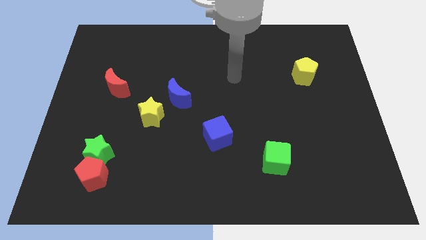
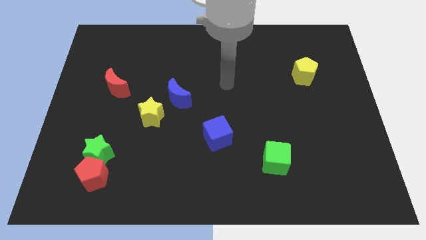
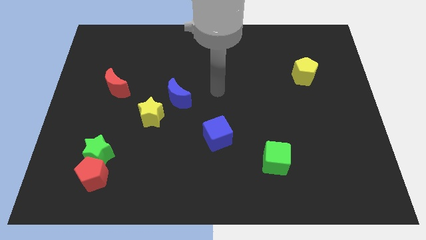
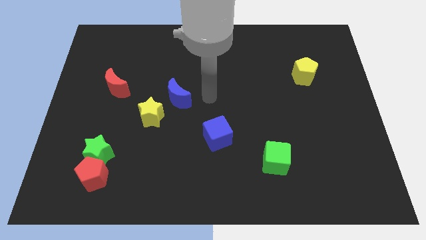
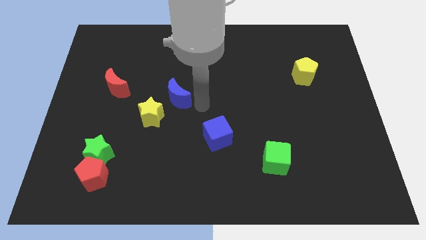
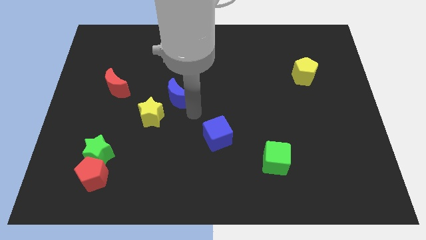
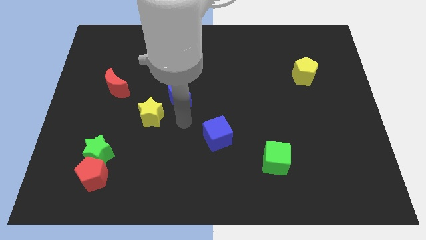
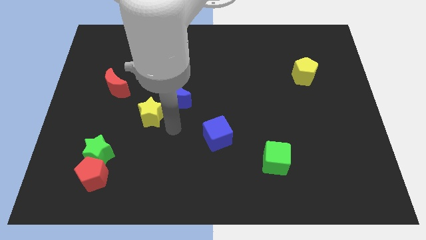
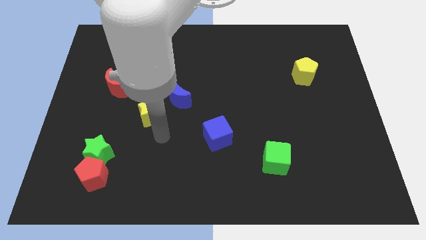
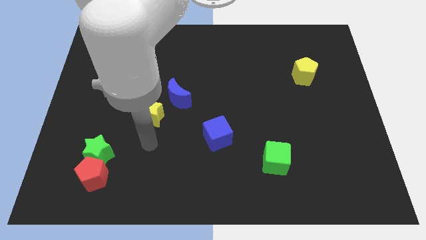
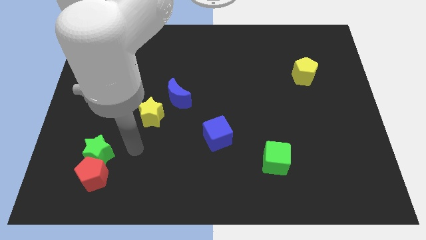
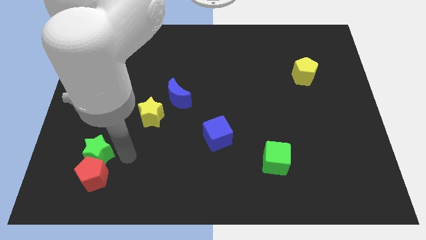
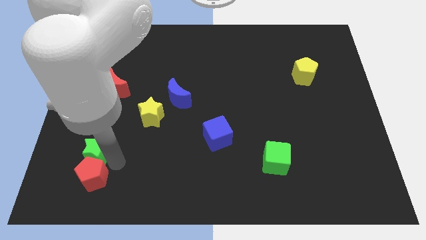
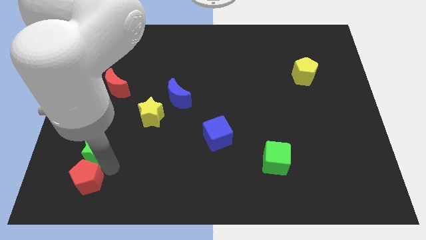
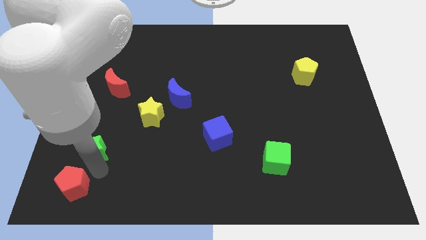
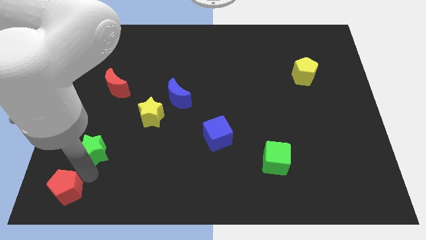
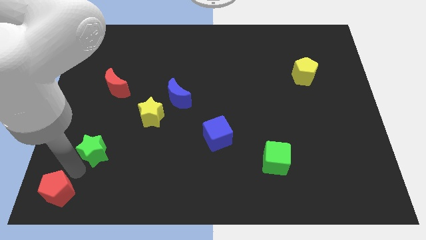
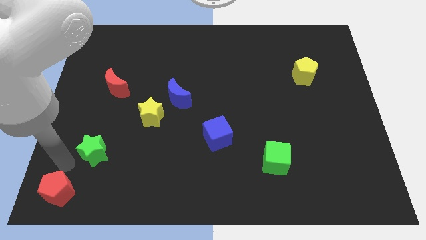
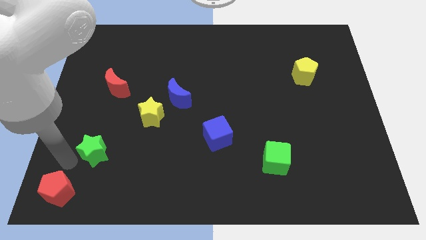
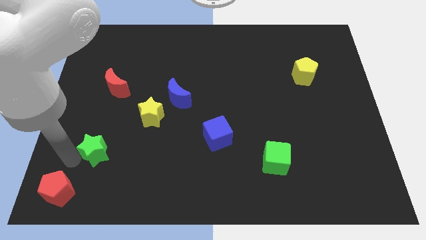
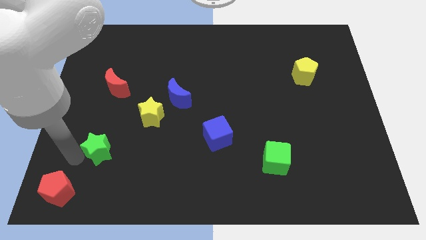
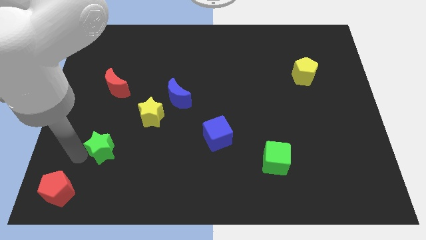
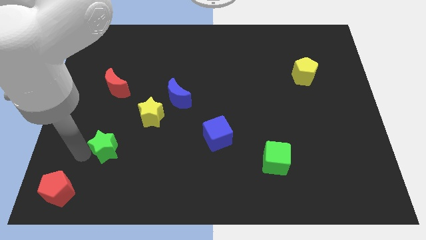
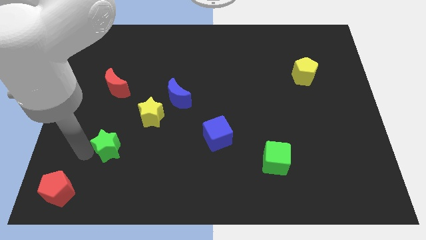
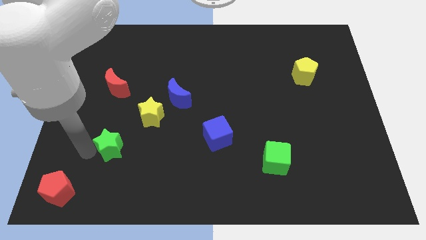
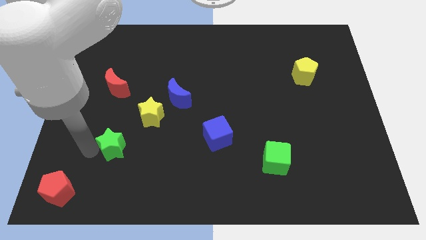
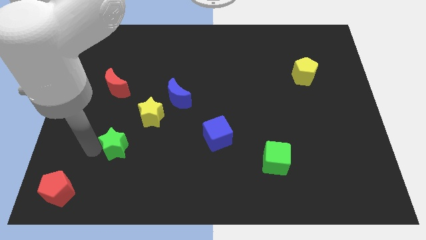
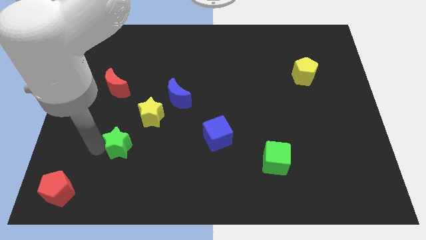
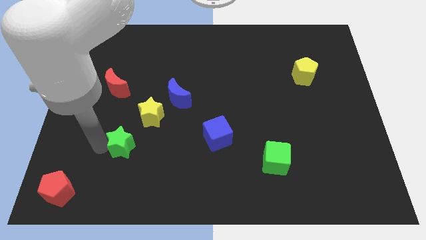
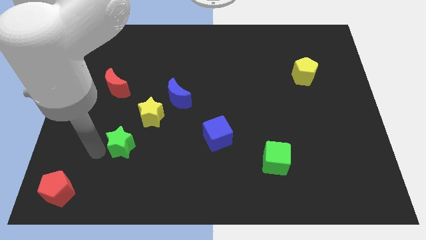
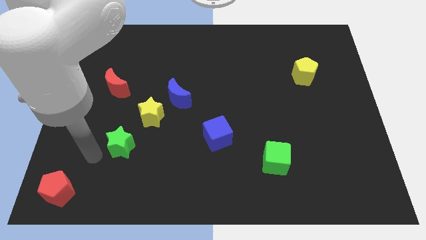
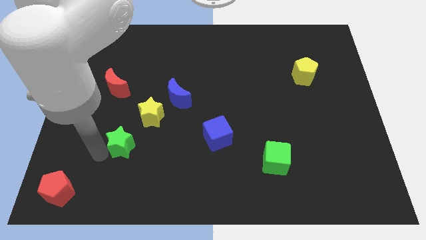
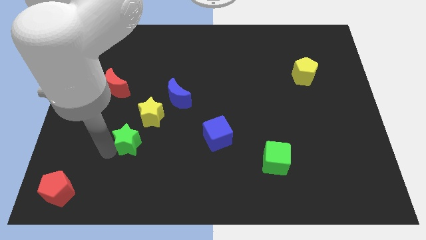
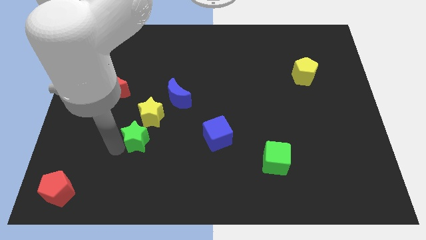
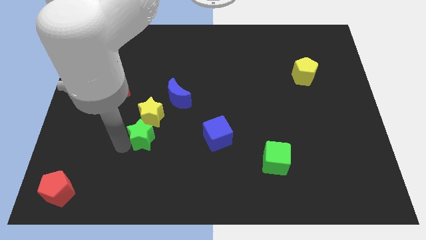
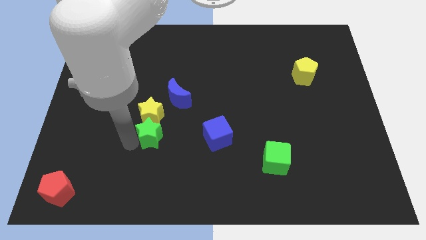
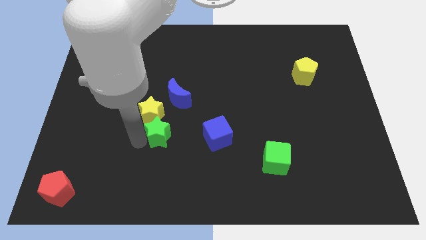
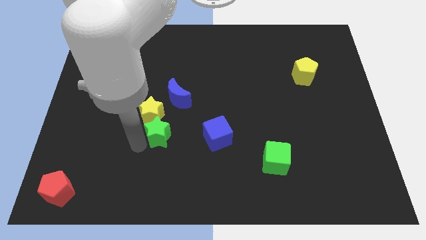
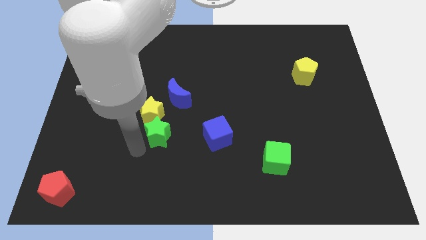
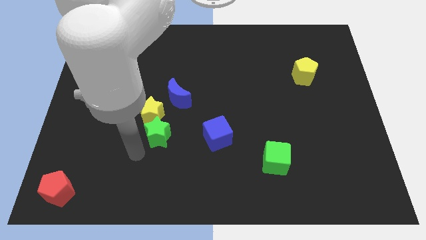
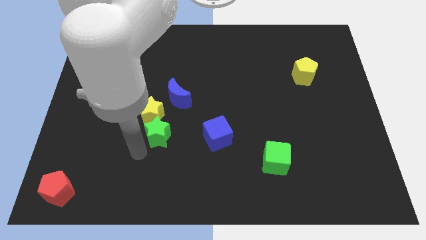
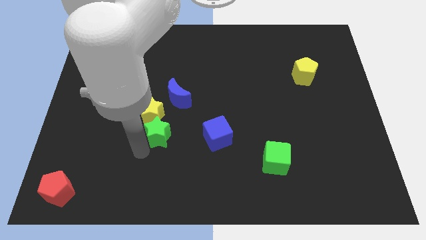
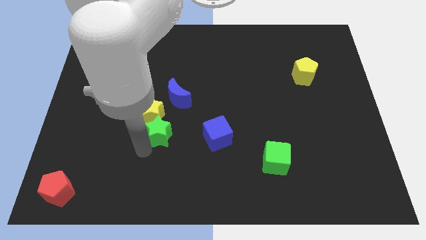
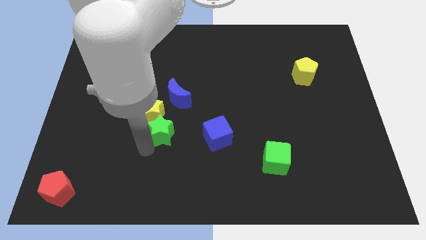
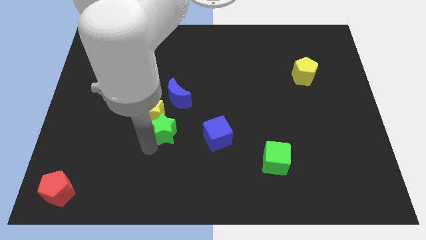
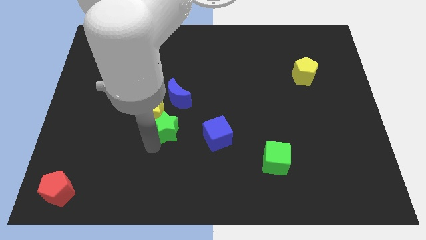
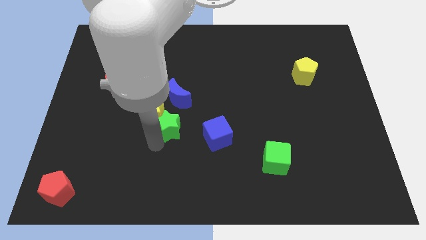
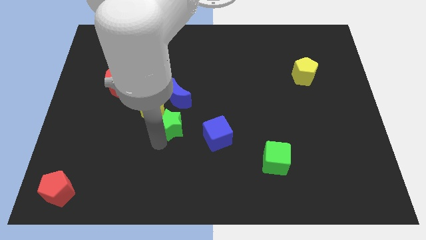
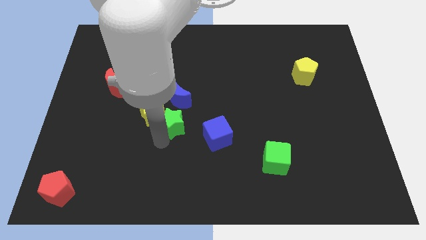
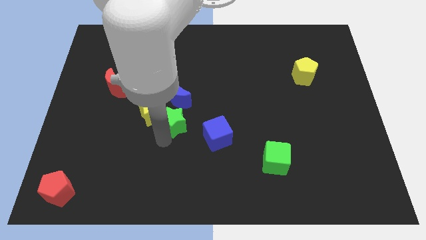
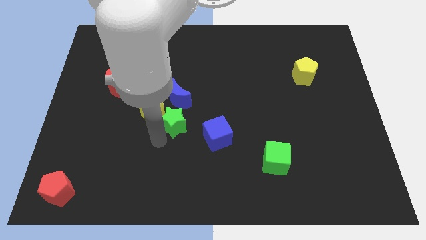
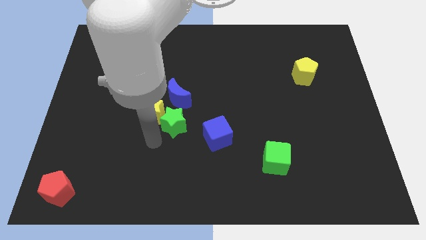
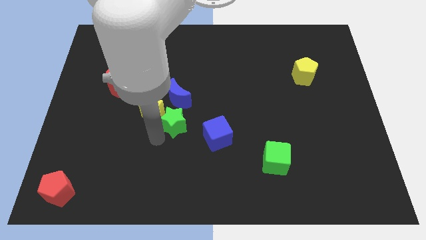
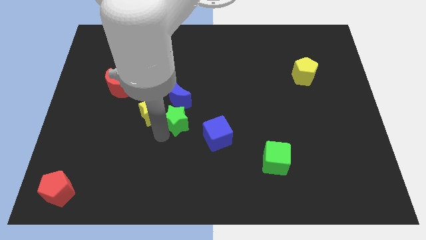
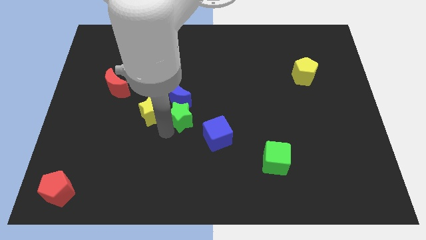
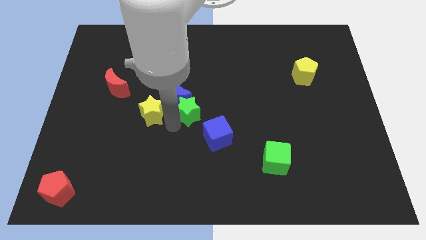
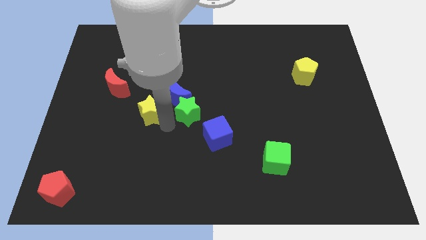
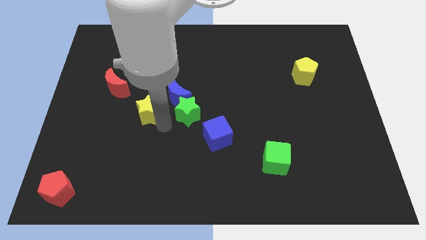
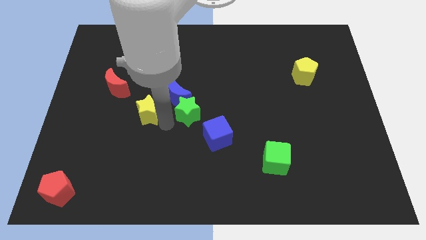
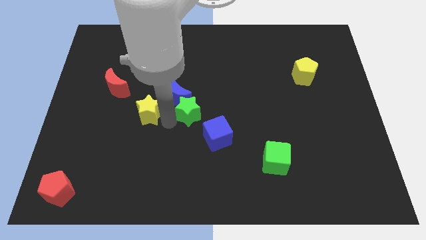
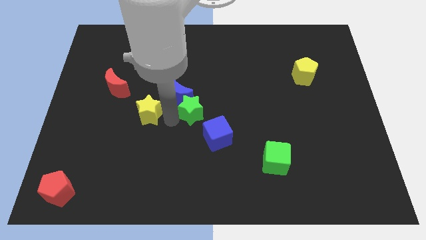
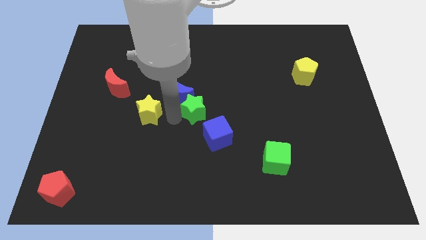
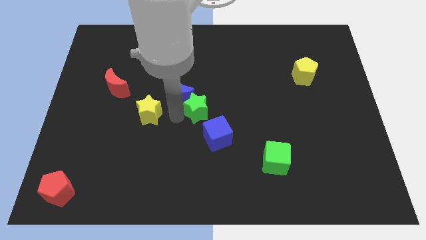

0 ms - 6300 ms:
put the green star to the top side of the blue cube
